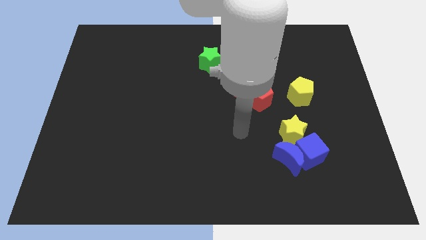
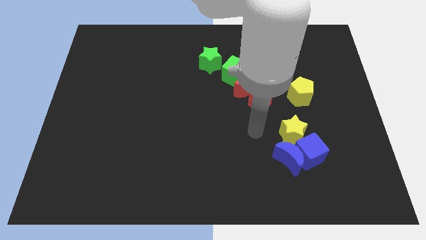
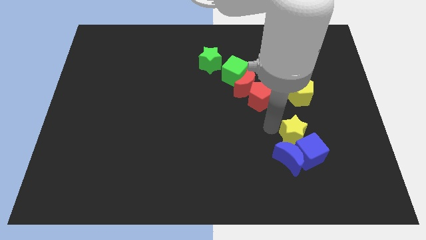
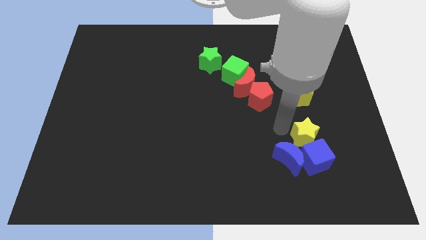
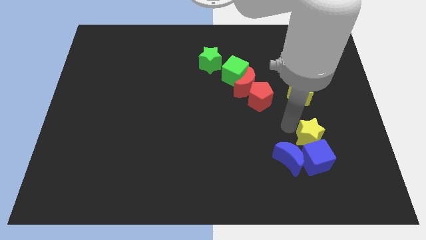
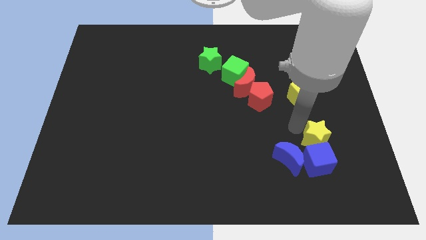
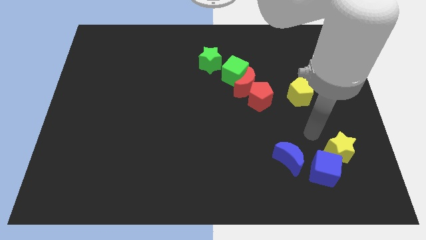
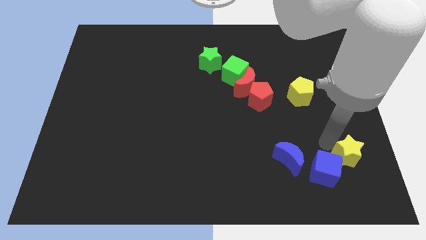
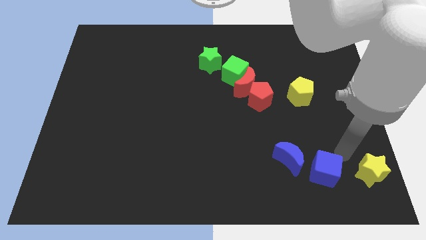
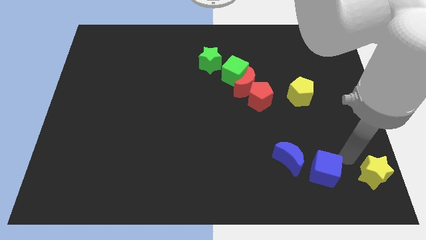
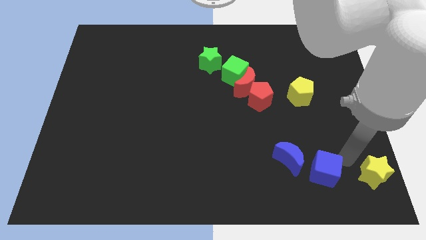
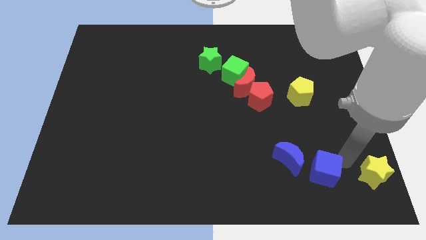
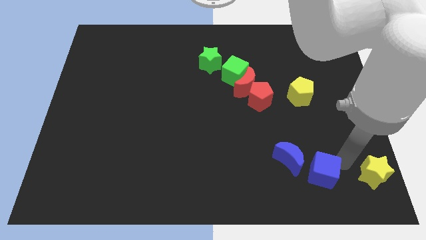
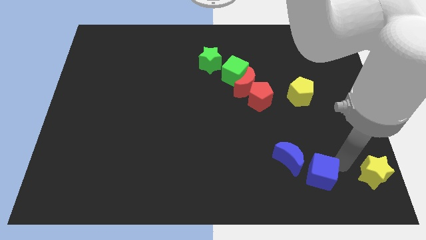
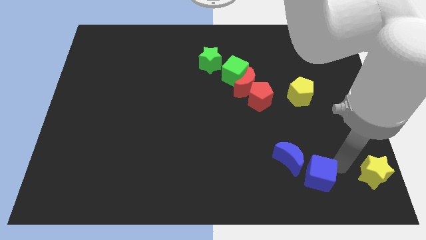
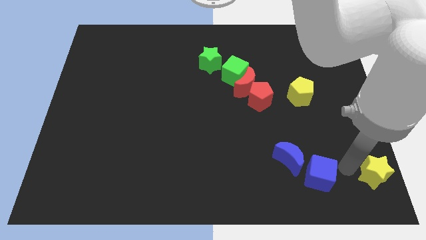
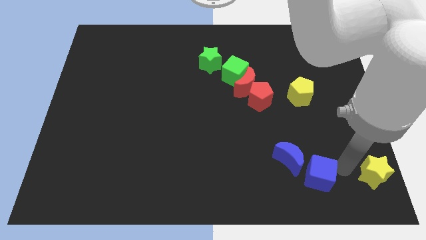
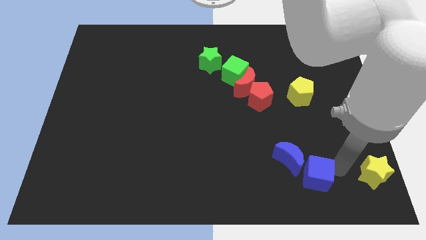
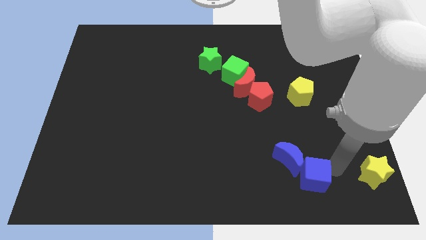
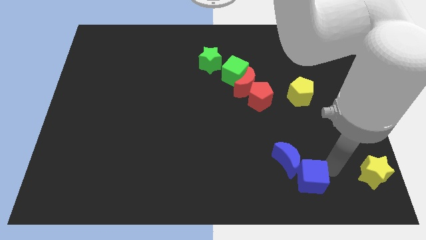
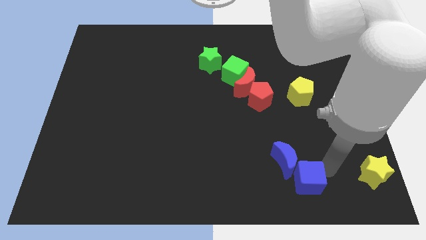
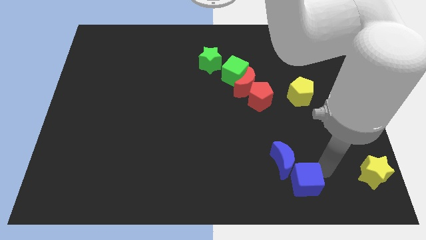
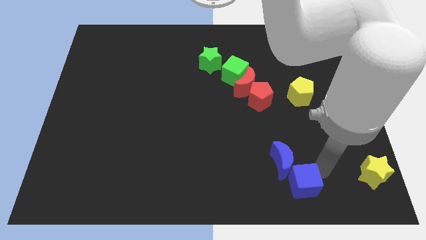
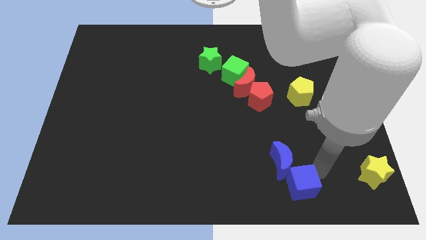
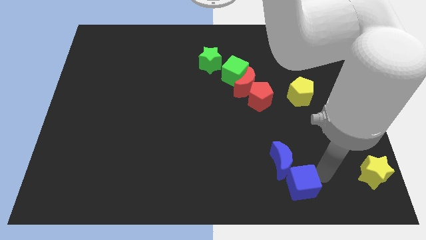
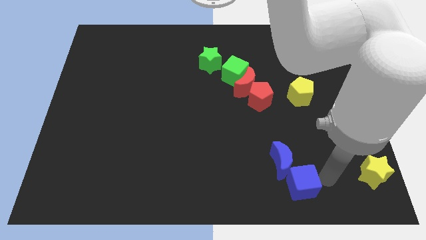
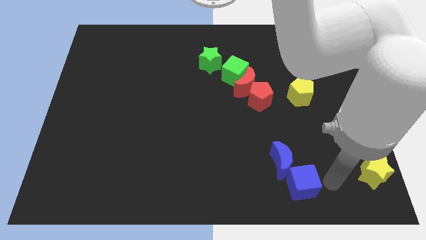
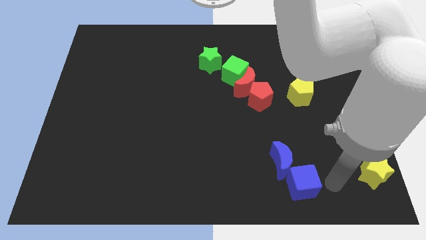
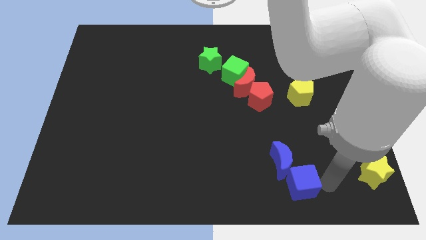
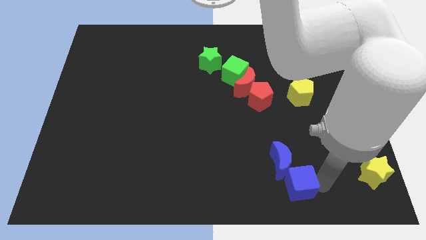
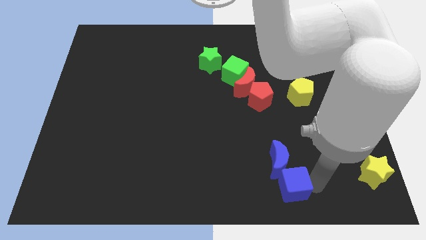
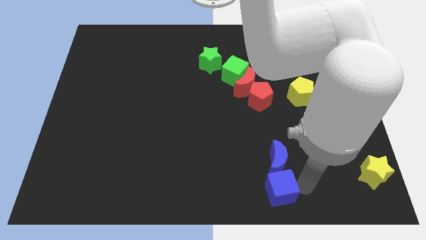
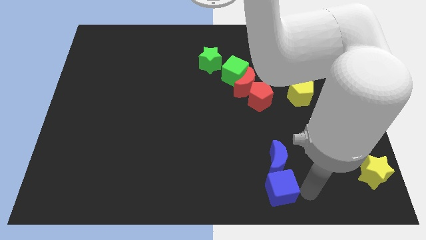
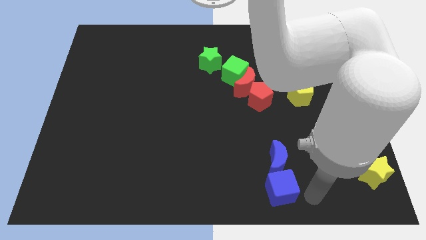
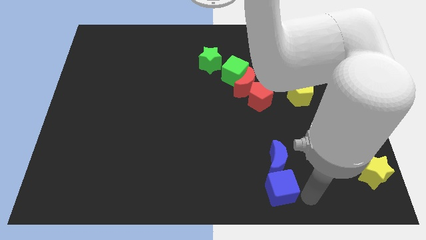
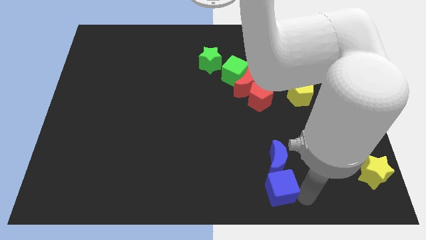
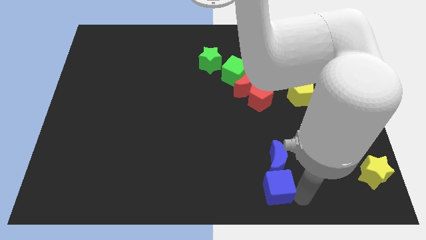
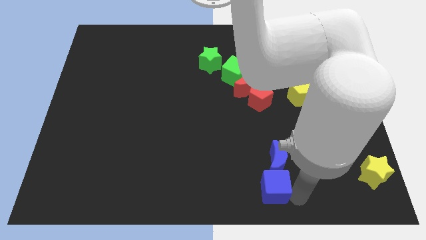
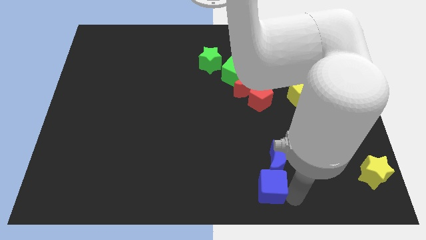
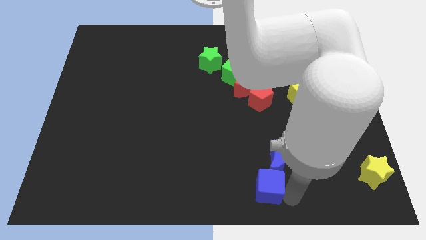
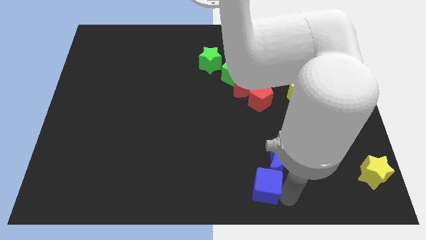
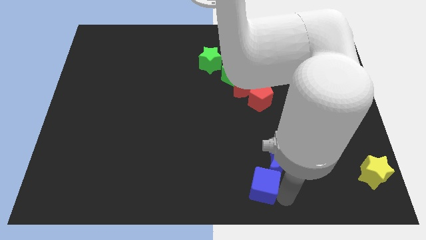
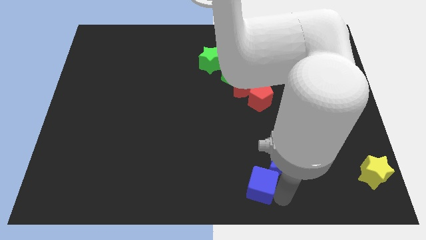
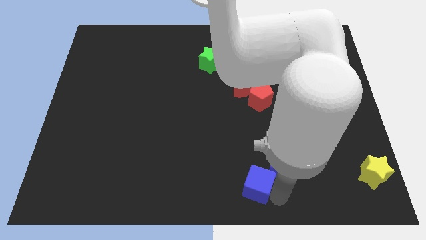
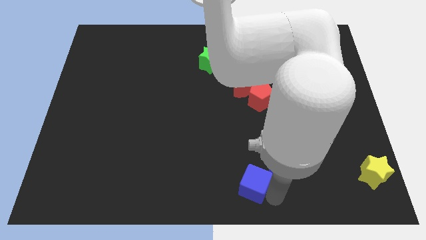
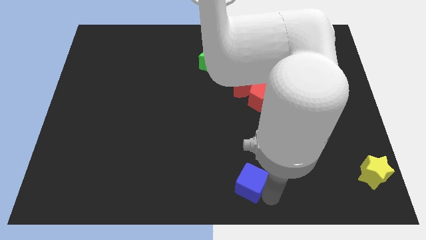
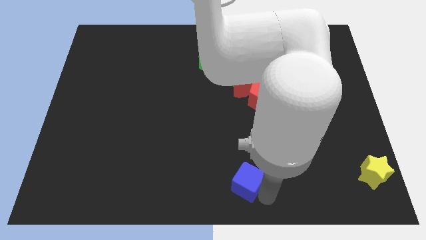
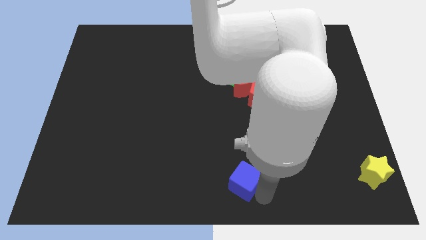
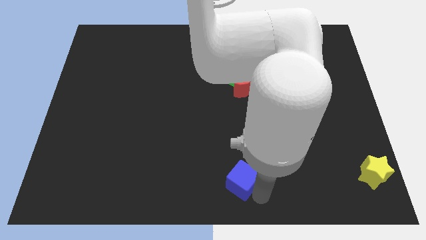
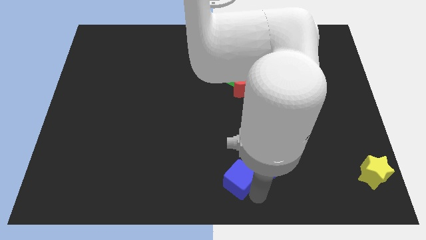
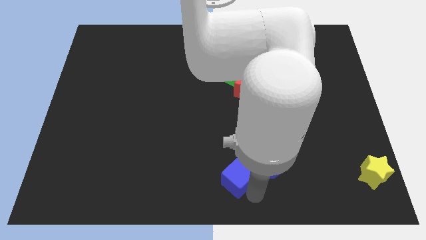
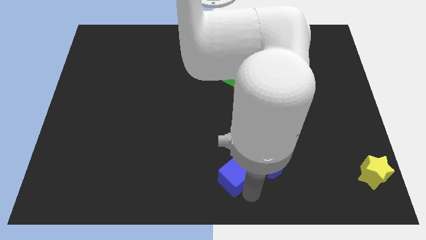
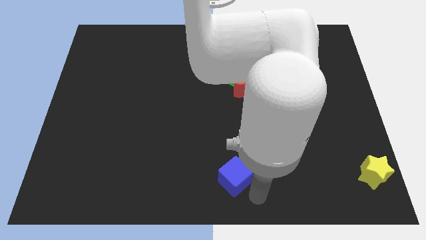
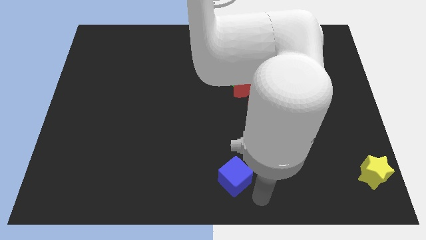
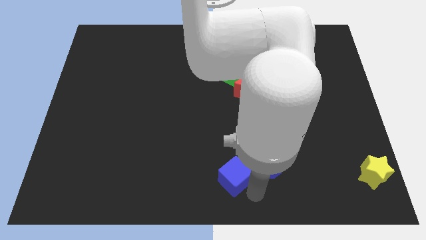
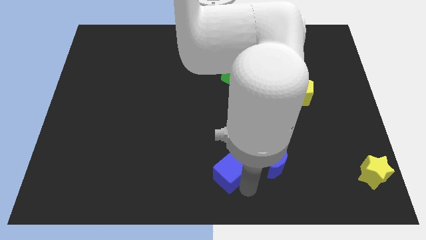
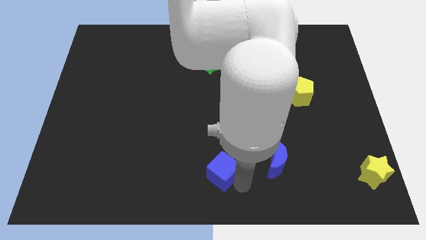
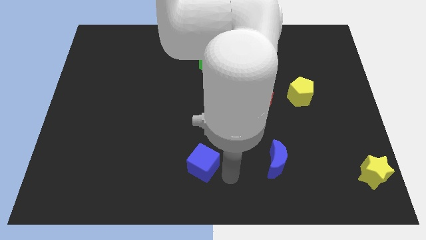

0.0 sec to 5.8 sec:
slide the blue cube left

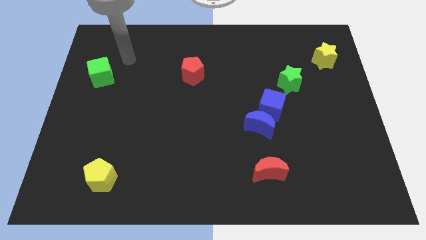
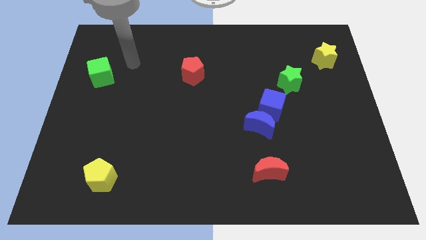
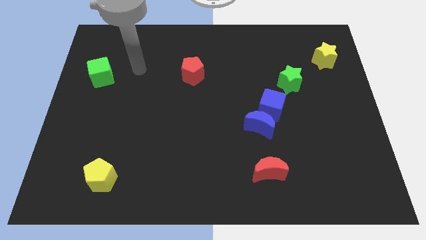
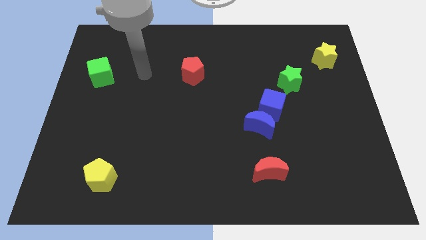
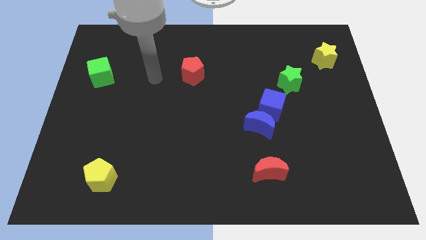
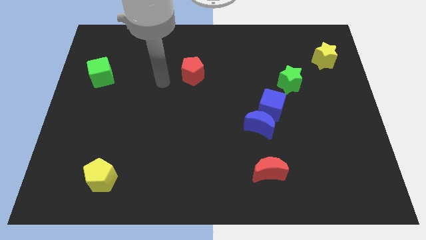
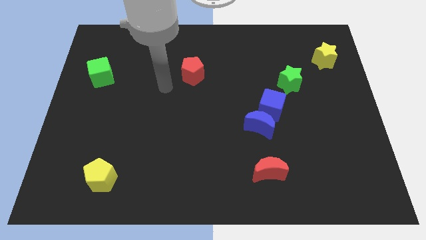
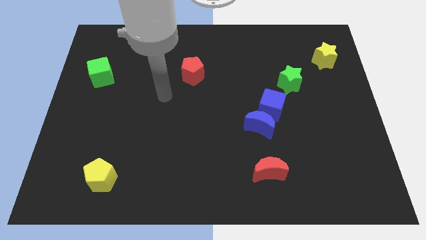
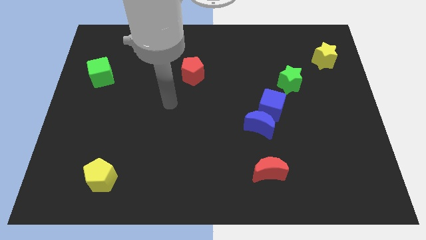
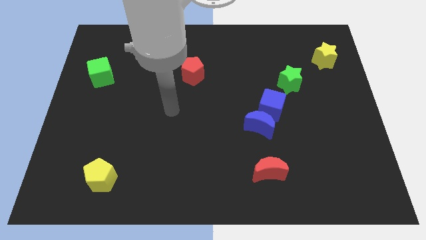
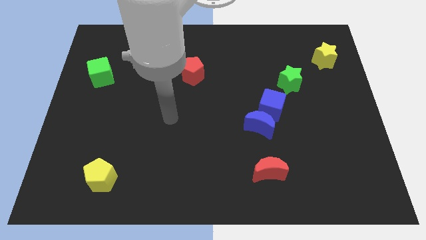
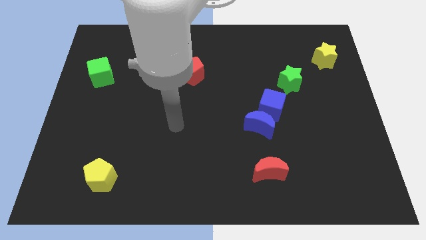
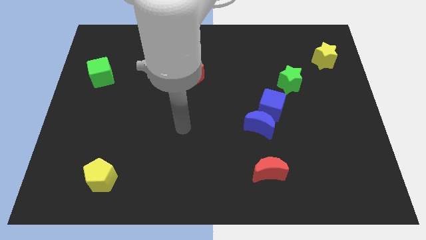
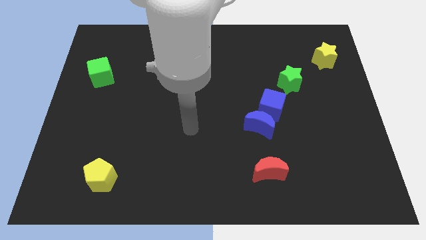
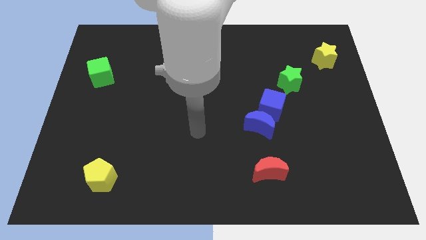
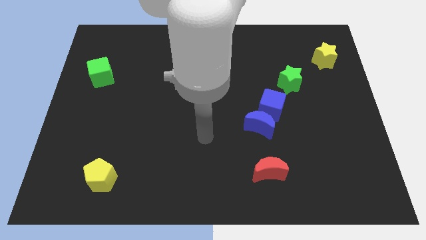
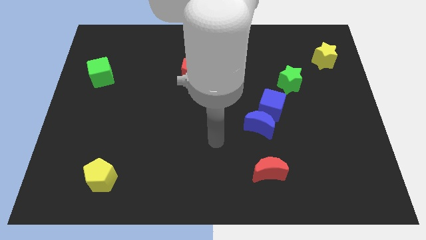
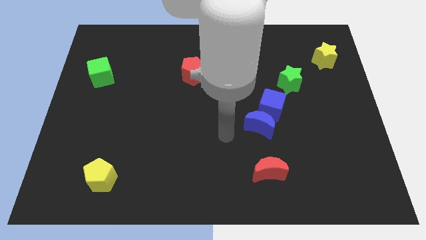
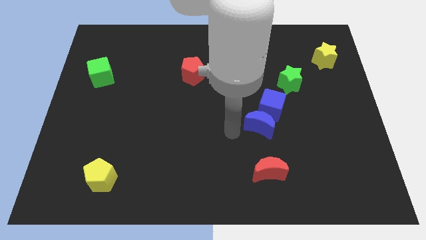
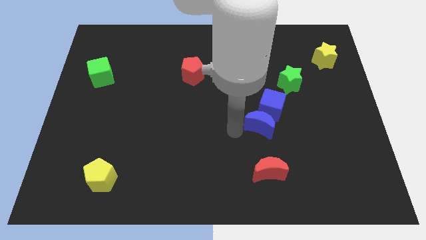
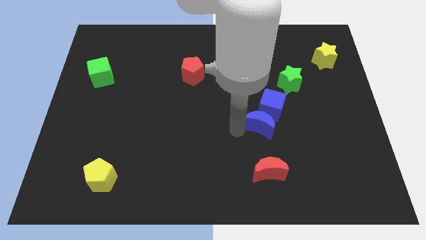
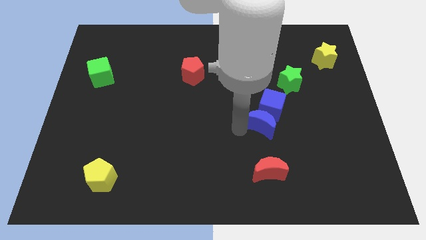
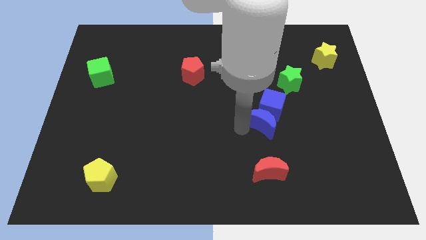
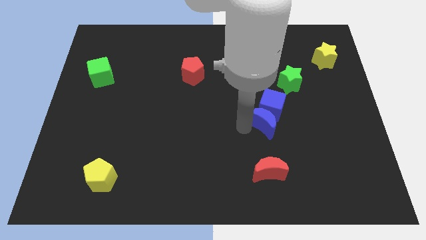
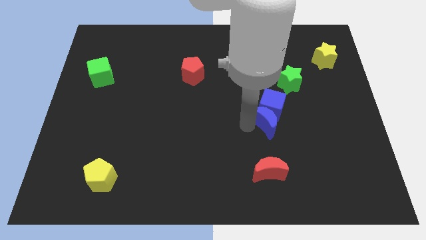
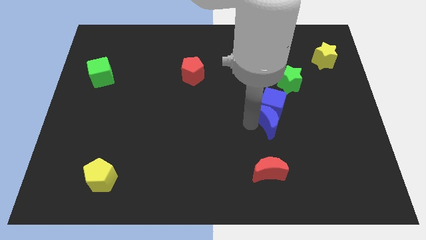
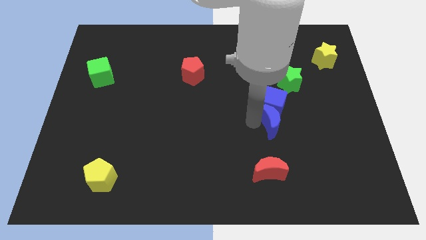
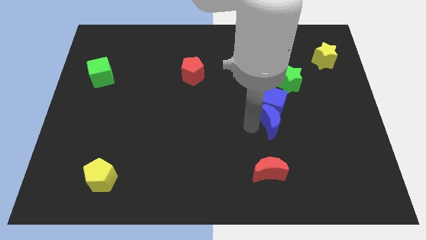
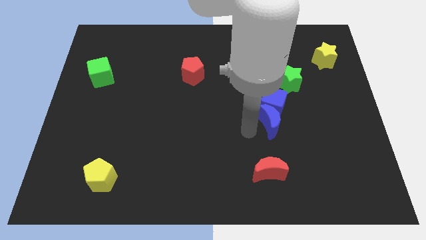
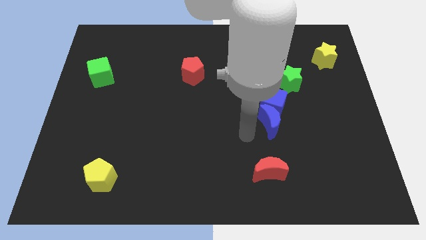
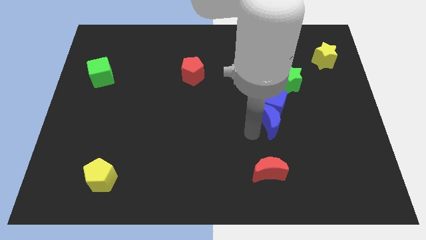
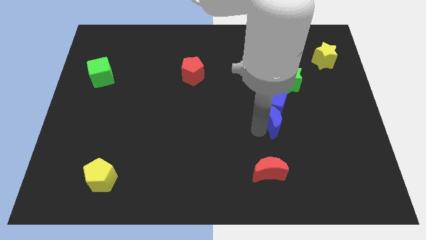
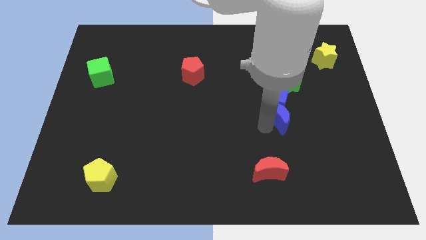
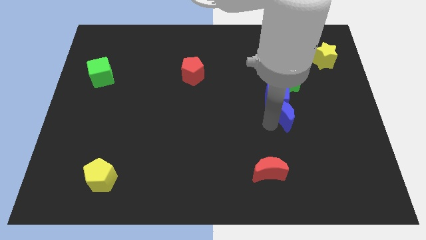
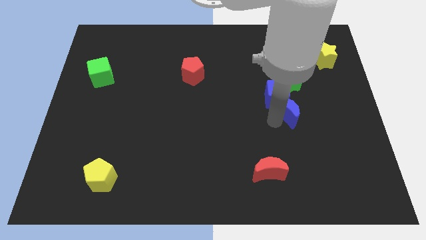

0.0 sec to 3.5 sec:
push the blue moon up and then right slightly
